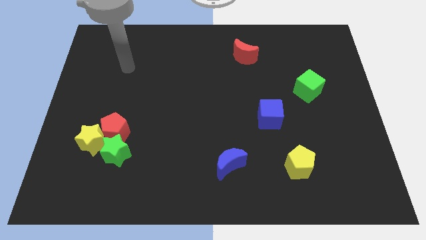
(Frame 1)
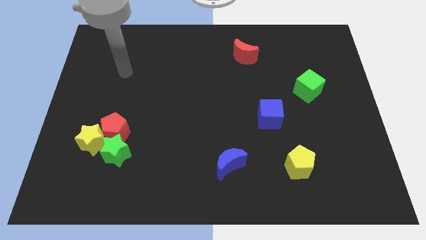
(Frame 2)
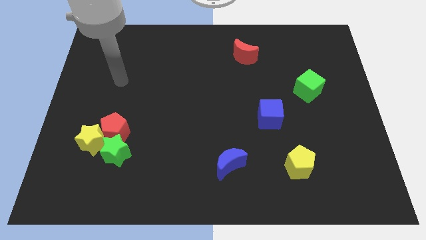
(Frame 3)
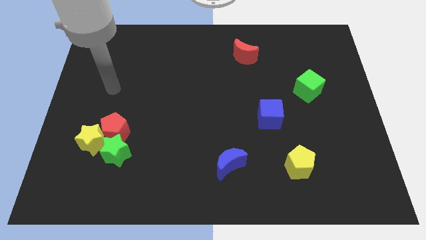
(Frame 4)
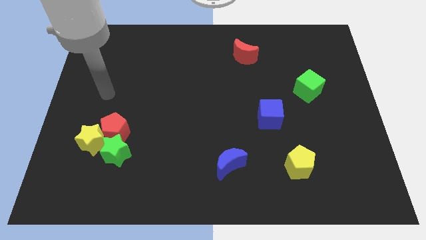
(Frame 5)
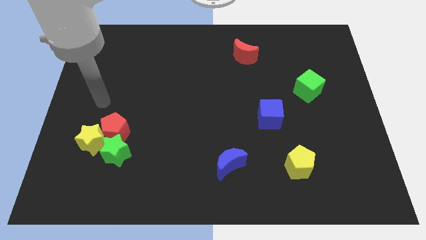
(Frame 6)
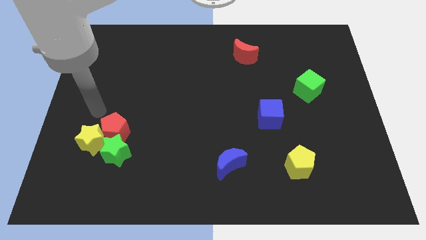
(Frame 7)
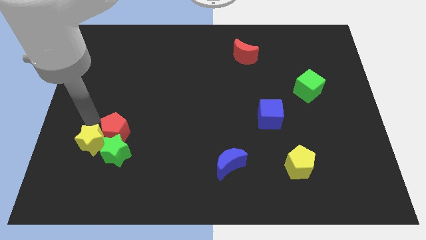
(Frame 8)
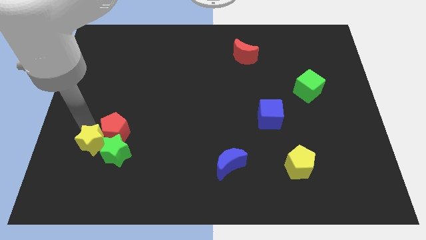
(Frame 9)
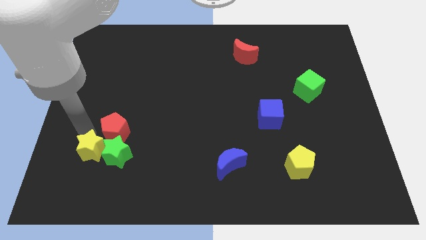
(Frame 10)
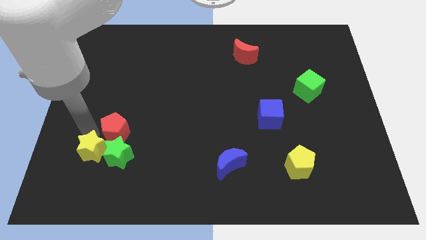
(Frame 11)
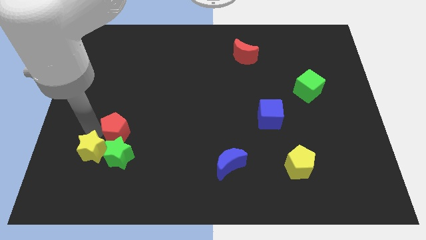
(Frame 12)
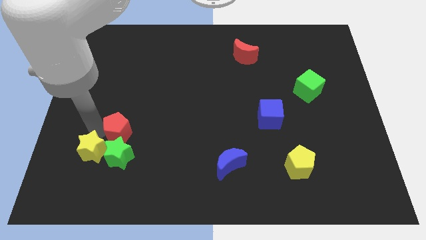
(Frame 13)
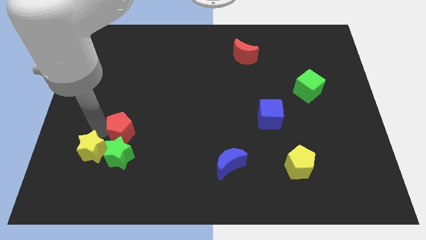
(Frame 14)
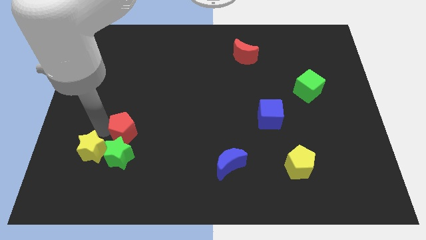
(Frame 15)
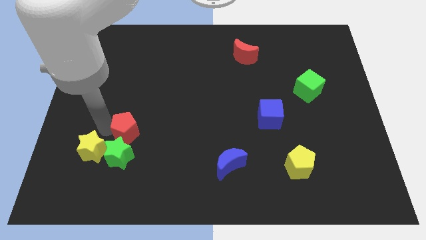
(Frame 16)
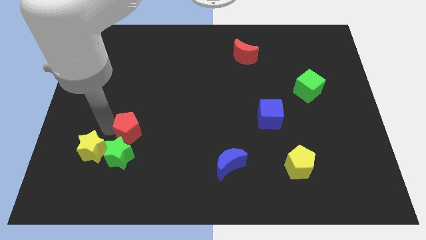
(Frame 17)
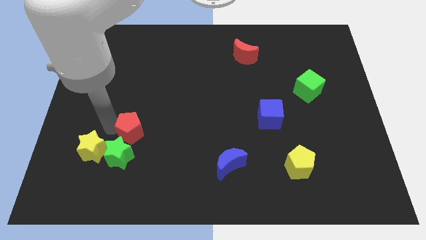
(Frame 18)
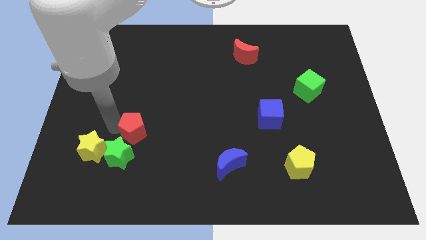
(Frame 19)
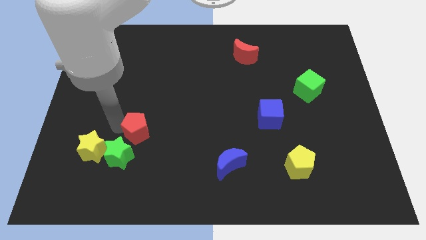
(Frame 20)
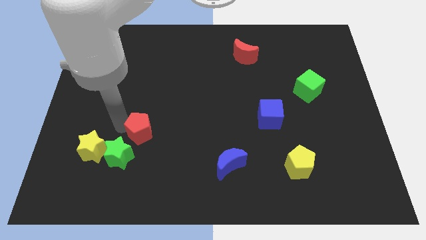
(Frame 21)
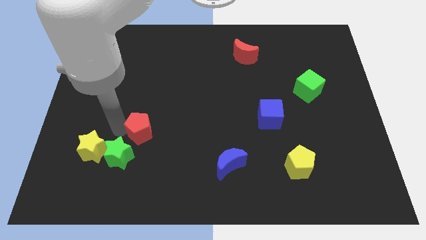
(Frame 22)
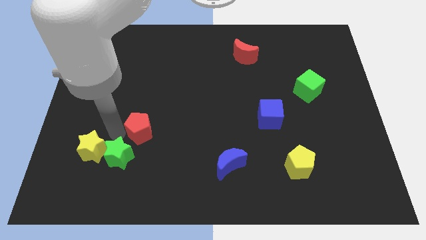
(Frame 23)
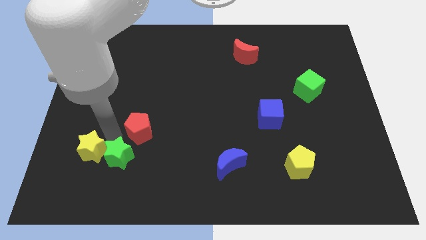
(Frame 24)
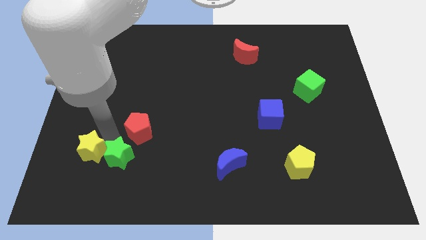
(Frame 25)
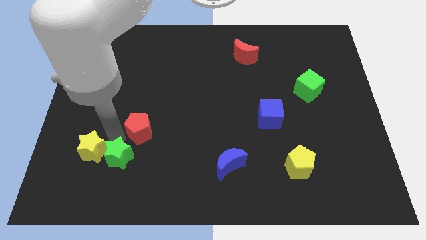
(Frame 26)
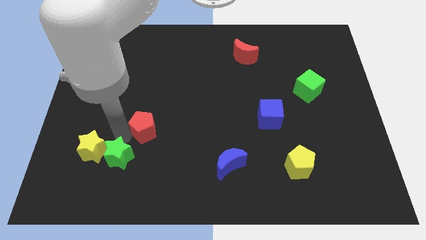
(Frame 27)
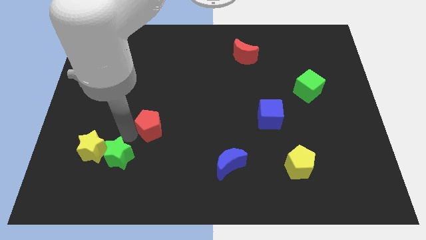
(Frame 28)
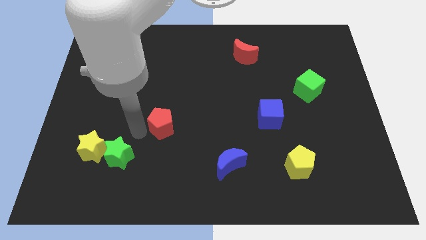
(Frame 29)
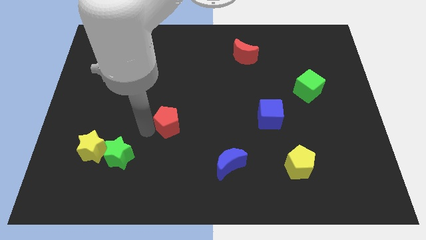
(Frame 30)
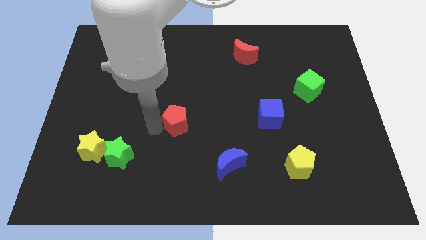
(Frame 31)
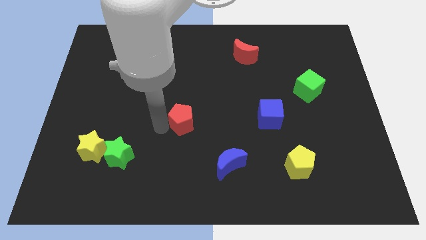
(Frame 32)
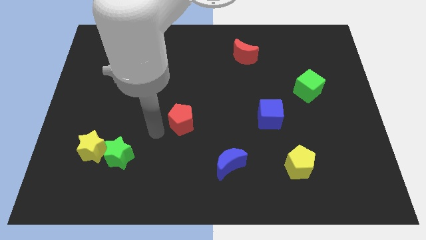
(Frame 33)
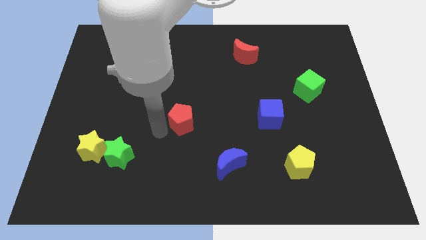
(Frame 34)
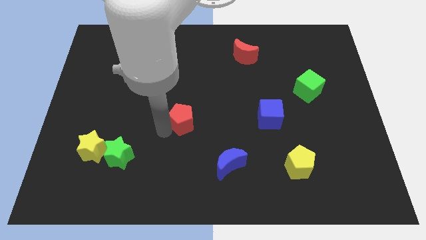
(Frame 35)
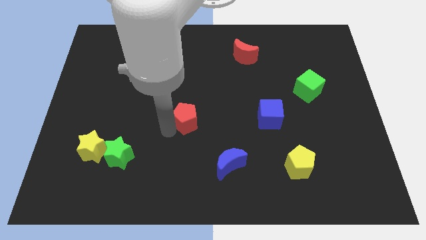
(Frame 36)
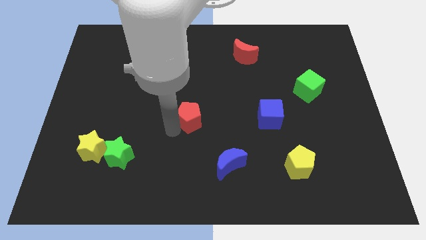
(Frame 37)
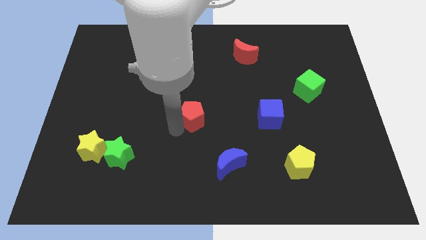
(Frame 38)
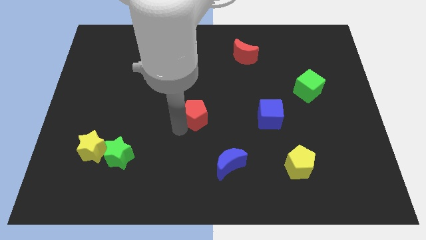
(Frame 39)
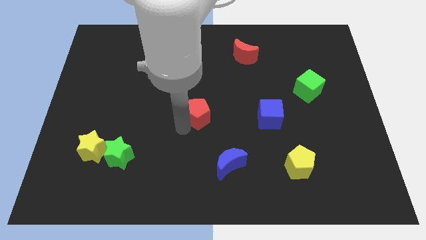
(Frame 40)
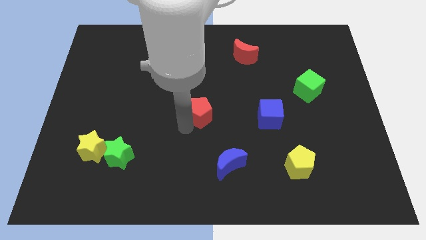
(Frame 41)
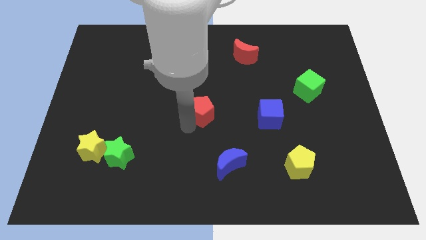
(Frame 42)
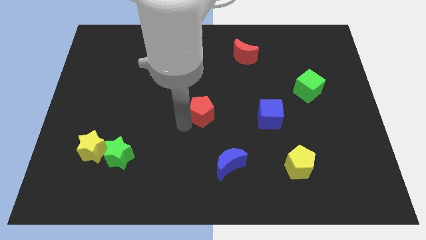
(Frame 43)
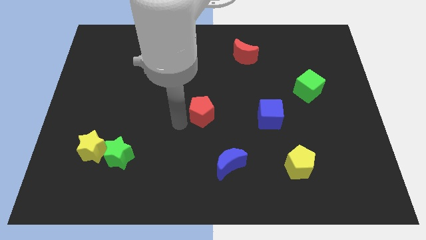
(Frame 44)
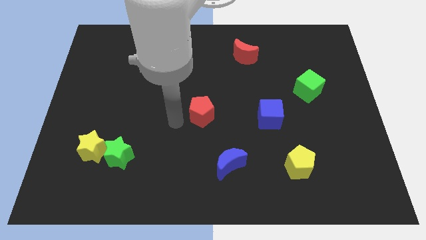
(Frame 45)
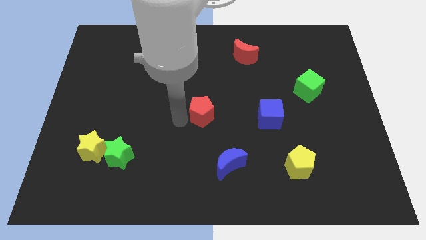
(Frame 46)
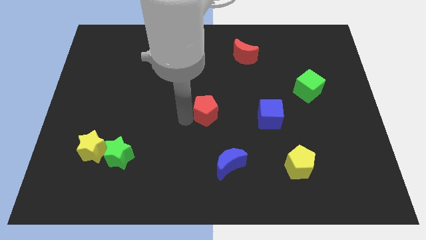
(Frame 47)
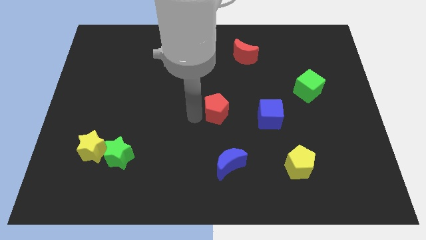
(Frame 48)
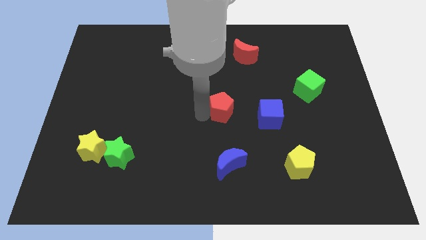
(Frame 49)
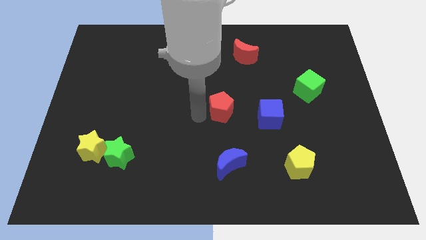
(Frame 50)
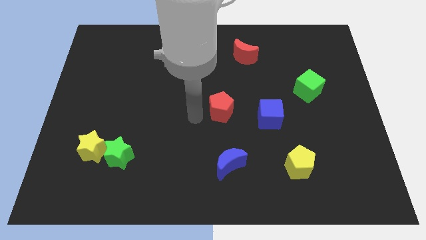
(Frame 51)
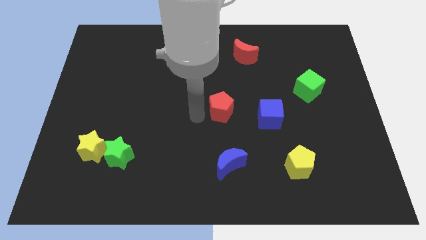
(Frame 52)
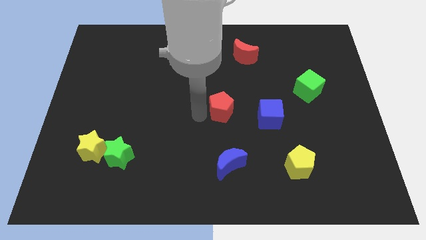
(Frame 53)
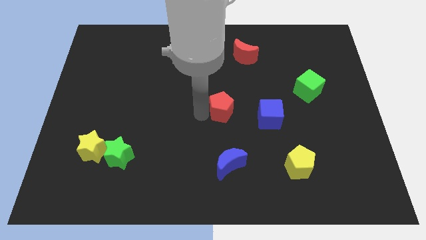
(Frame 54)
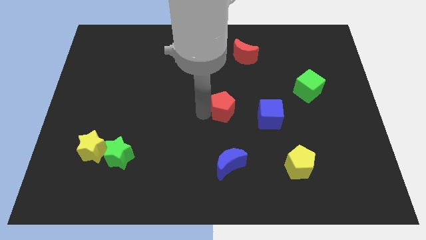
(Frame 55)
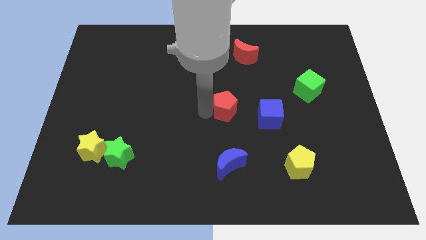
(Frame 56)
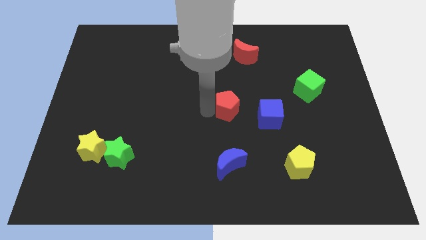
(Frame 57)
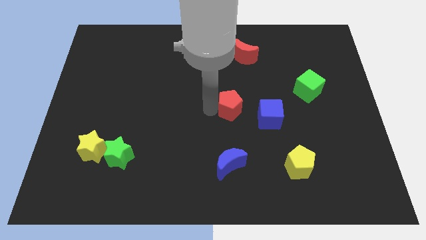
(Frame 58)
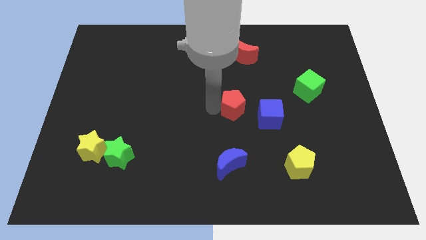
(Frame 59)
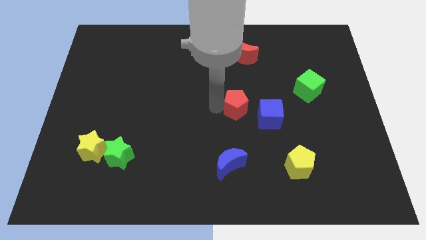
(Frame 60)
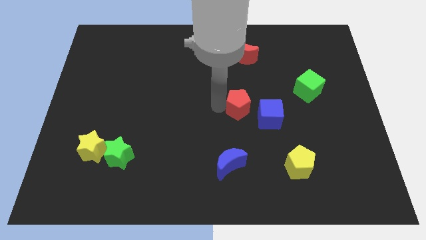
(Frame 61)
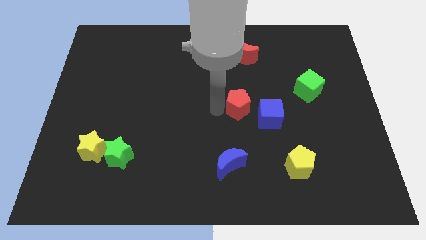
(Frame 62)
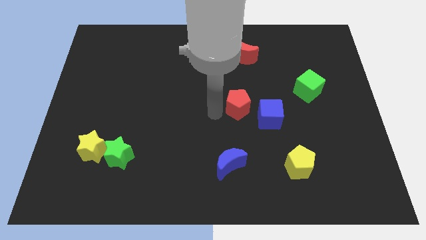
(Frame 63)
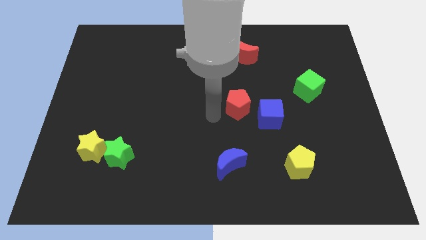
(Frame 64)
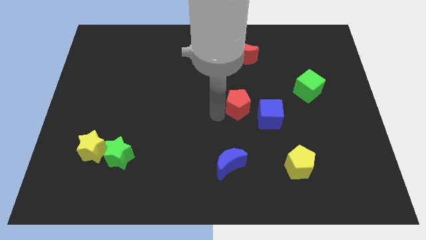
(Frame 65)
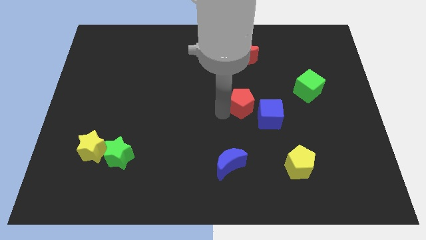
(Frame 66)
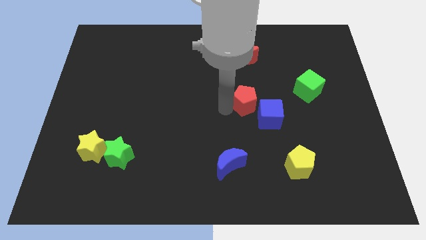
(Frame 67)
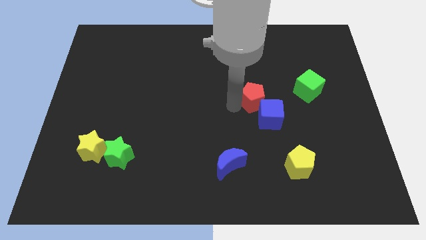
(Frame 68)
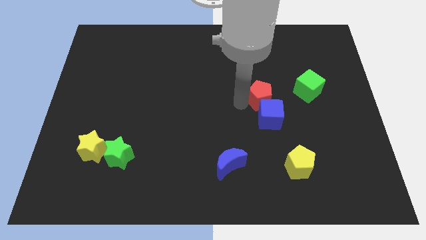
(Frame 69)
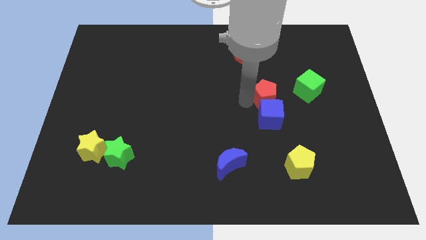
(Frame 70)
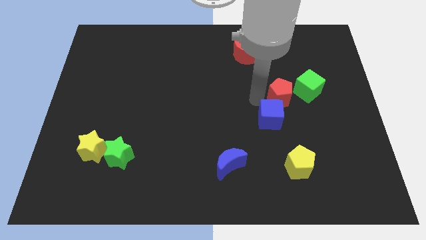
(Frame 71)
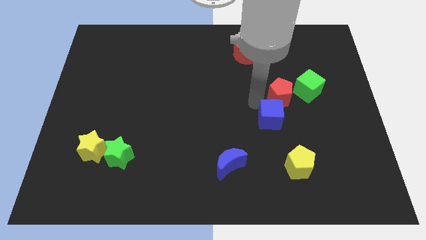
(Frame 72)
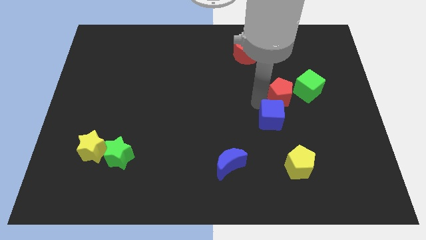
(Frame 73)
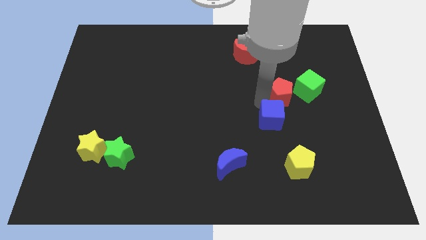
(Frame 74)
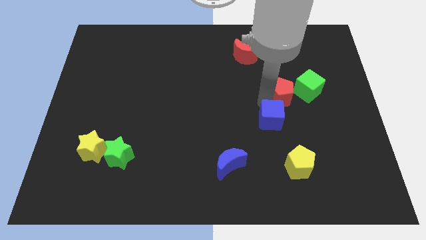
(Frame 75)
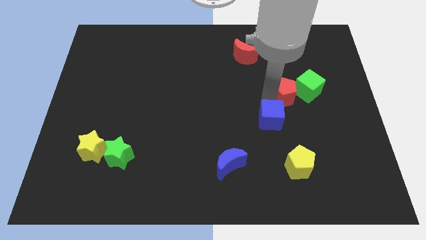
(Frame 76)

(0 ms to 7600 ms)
move the red pentagon towards the green cube
